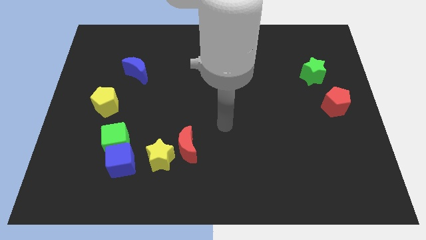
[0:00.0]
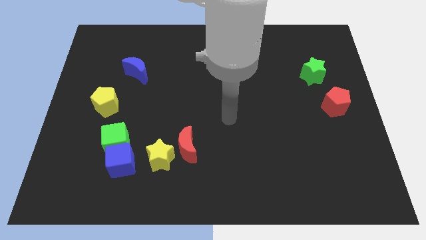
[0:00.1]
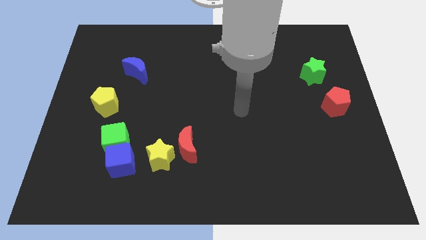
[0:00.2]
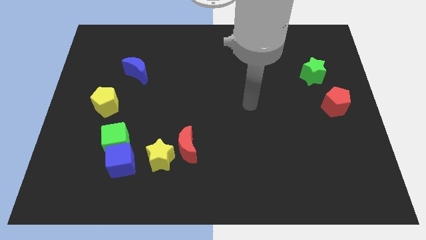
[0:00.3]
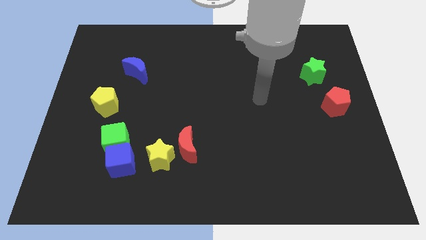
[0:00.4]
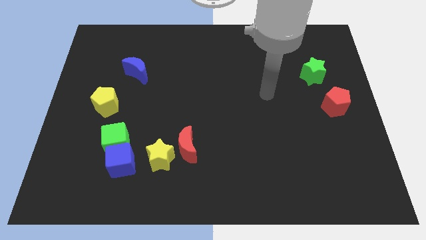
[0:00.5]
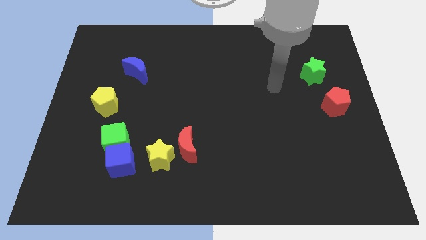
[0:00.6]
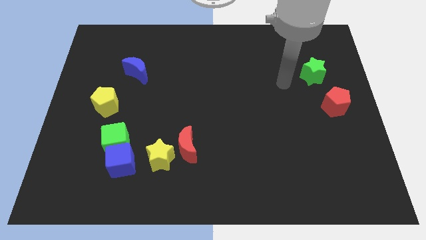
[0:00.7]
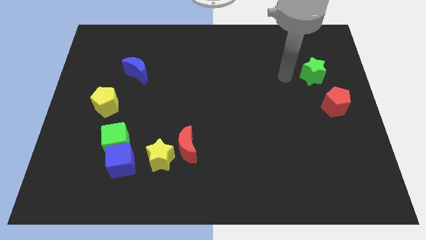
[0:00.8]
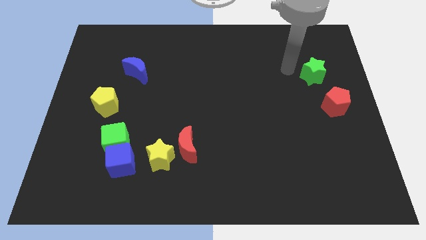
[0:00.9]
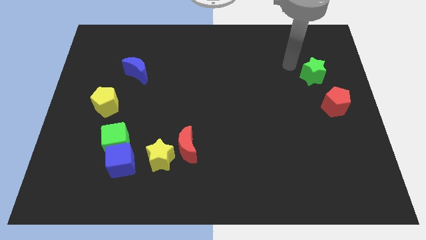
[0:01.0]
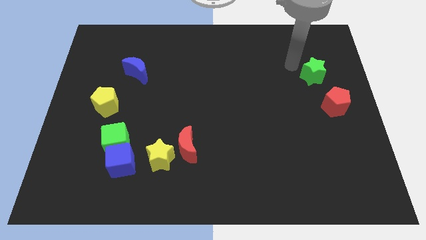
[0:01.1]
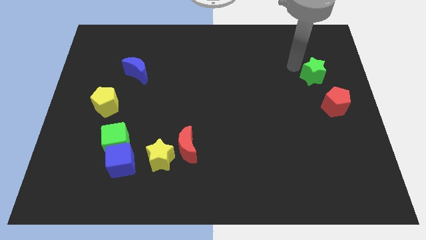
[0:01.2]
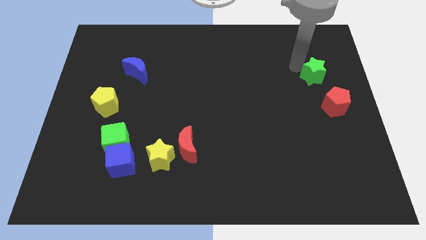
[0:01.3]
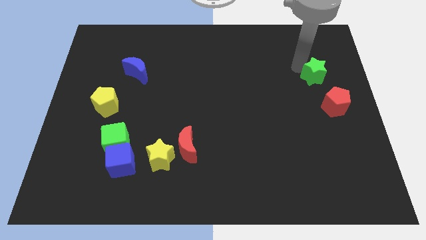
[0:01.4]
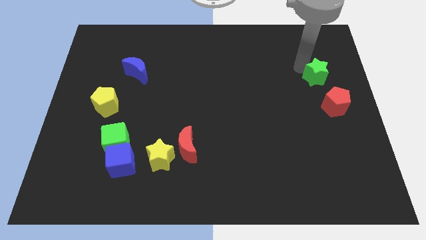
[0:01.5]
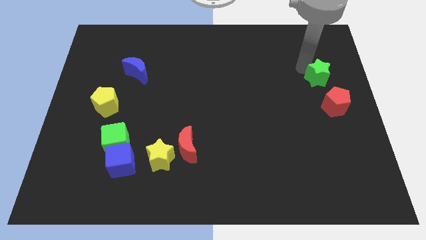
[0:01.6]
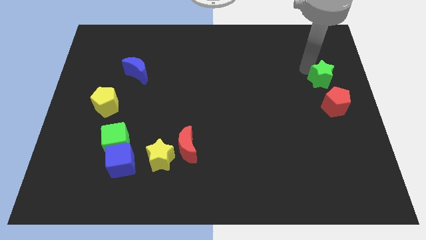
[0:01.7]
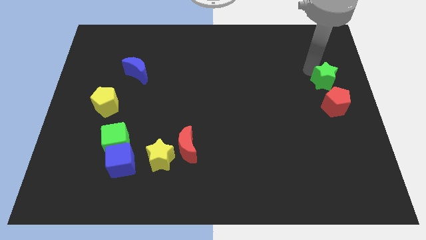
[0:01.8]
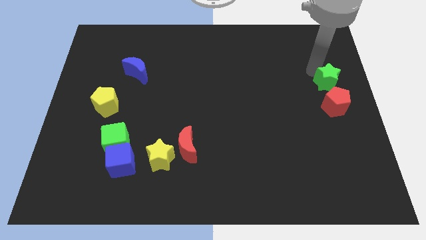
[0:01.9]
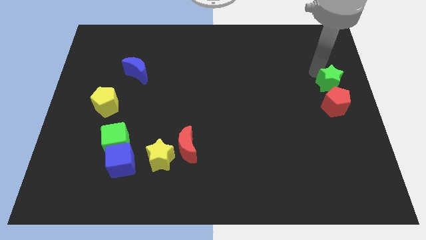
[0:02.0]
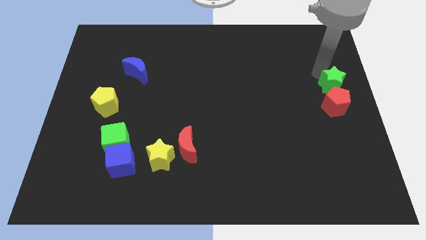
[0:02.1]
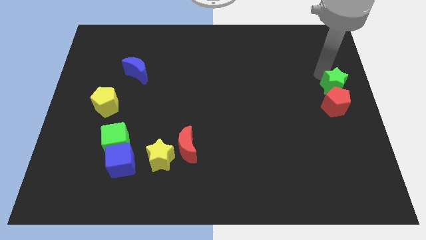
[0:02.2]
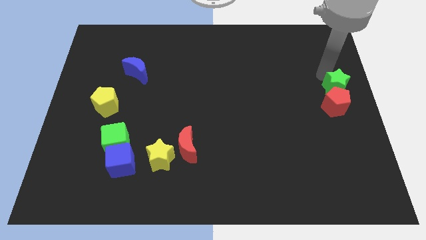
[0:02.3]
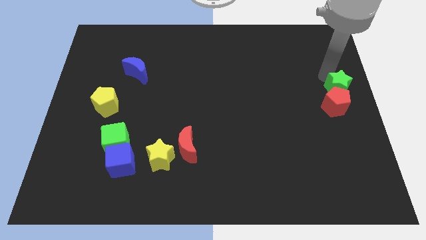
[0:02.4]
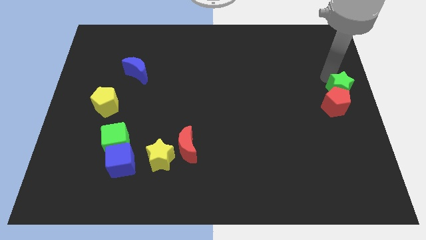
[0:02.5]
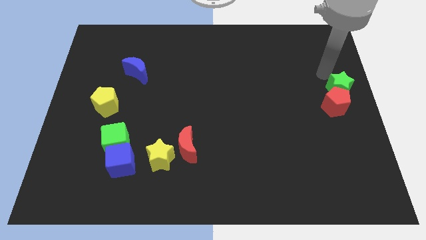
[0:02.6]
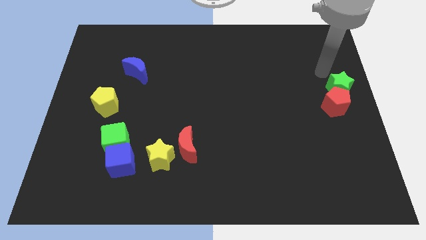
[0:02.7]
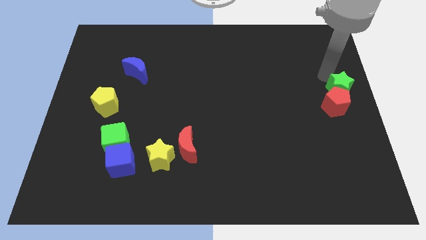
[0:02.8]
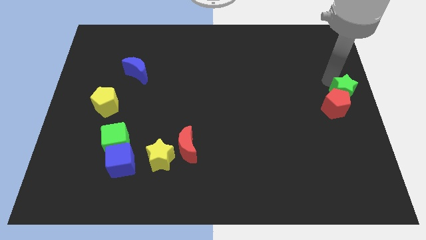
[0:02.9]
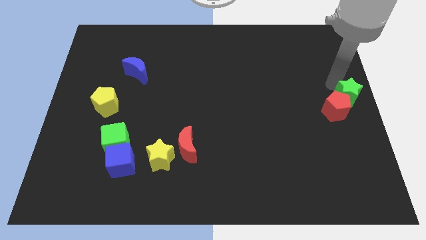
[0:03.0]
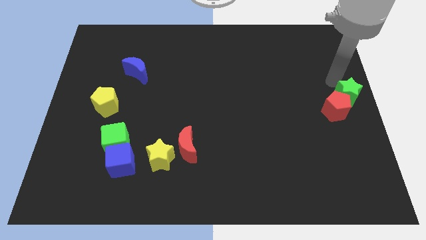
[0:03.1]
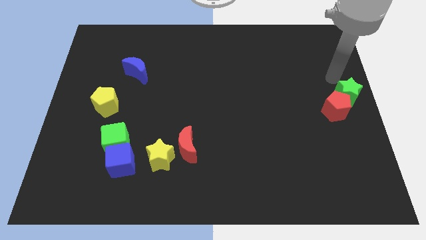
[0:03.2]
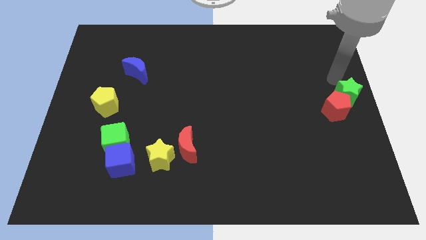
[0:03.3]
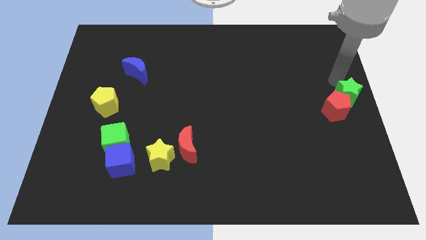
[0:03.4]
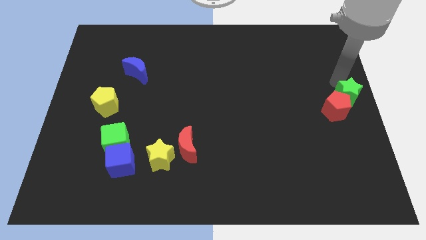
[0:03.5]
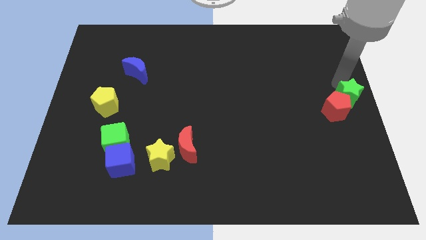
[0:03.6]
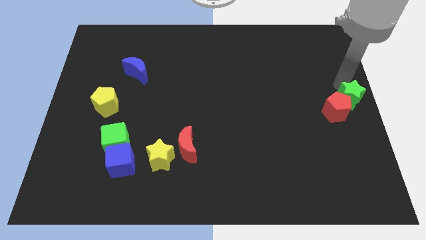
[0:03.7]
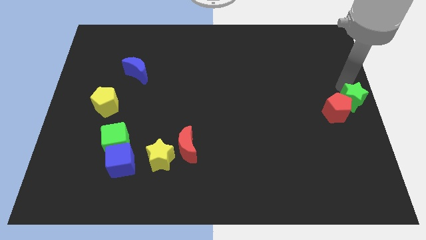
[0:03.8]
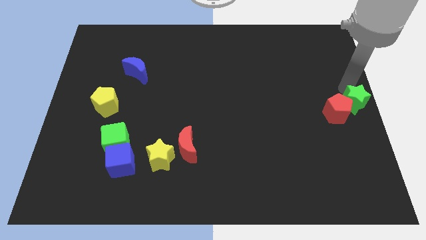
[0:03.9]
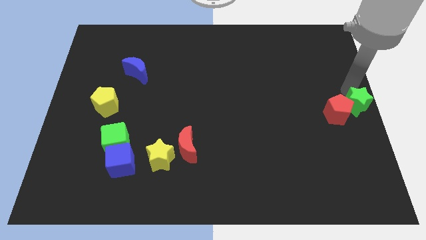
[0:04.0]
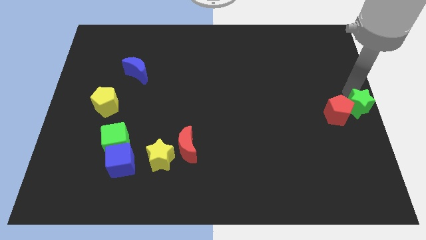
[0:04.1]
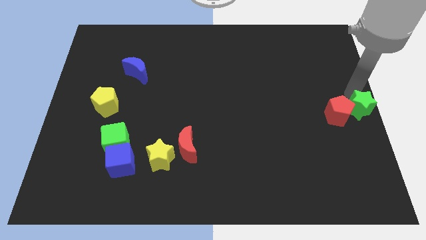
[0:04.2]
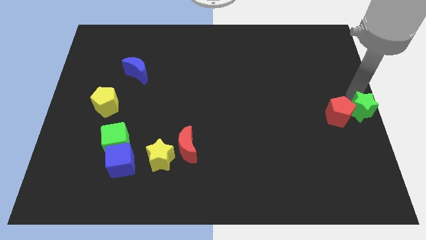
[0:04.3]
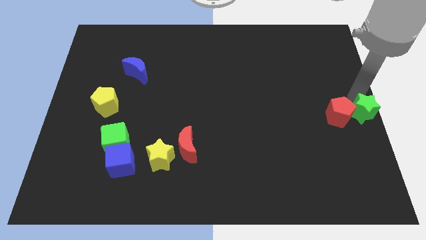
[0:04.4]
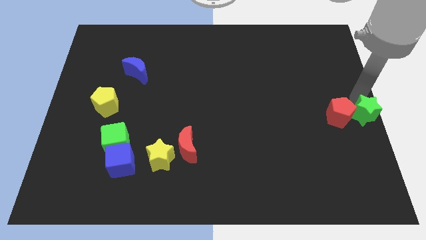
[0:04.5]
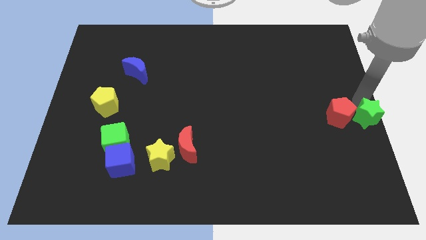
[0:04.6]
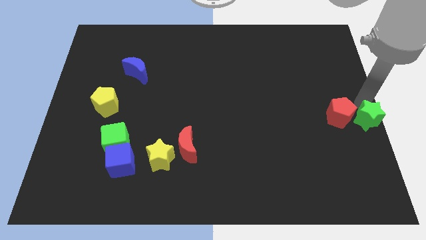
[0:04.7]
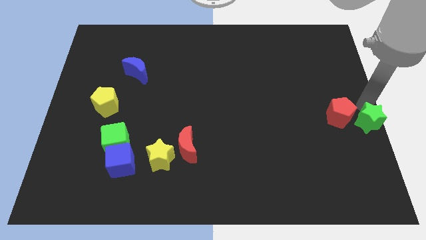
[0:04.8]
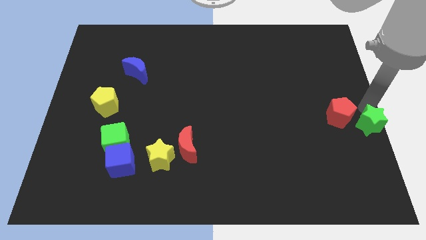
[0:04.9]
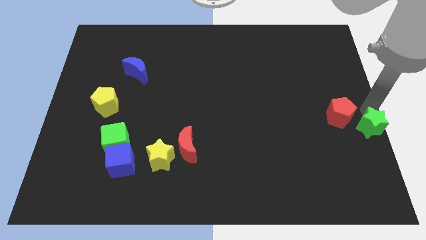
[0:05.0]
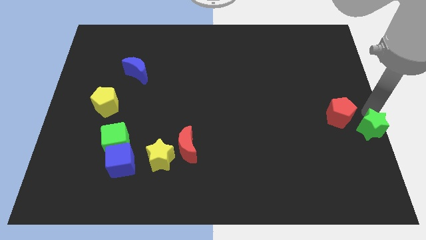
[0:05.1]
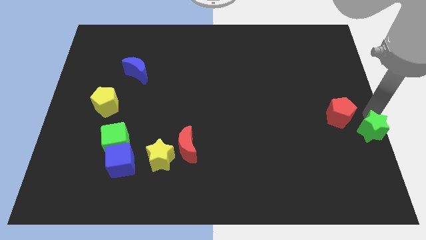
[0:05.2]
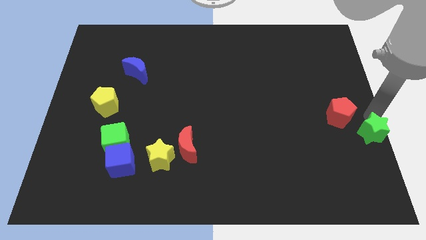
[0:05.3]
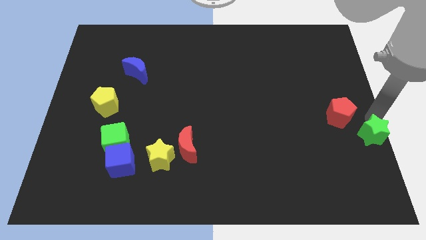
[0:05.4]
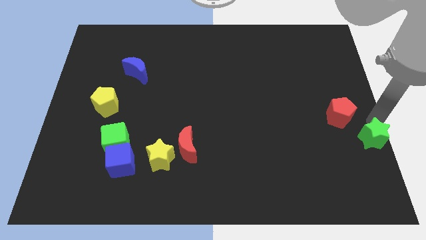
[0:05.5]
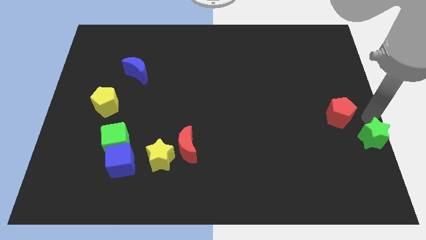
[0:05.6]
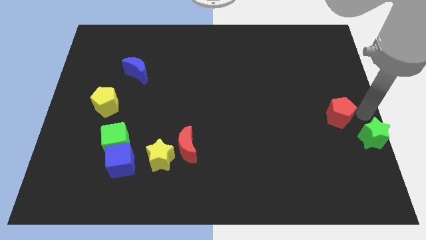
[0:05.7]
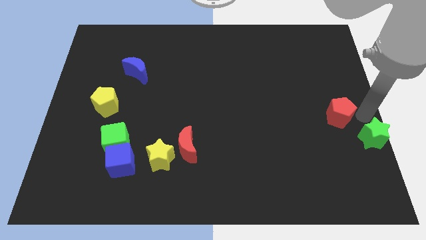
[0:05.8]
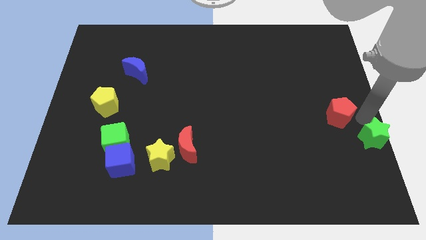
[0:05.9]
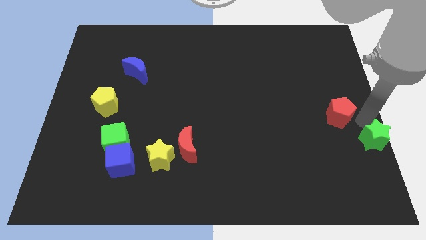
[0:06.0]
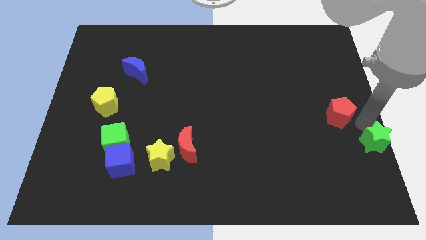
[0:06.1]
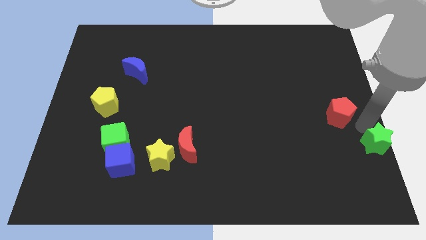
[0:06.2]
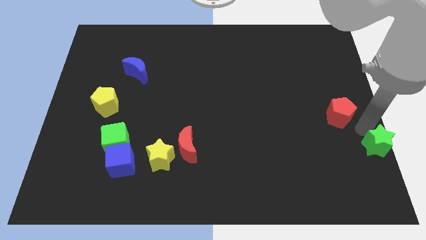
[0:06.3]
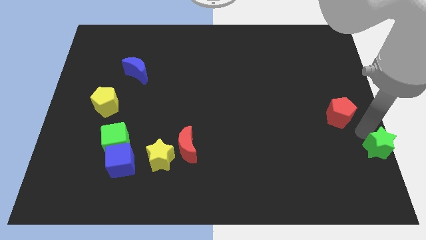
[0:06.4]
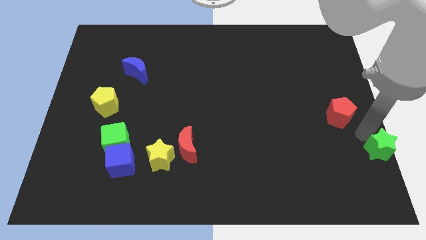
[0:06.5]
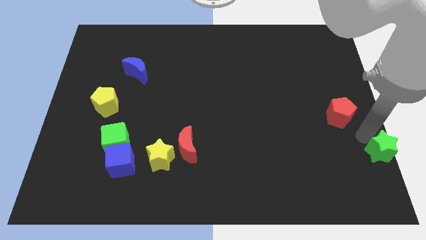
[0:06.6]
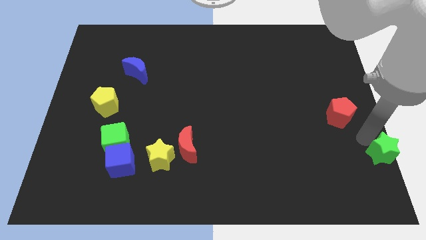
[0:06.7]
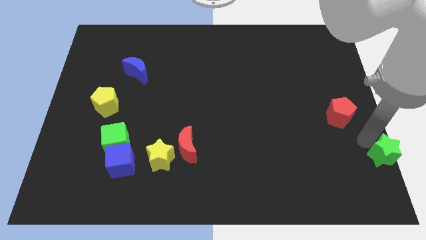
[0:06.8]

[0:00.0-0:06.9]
put the green star to the bottom right of the board
